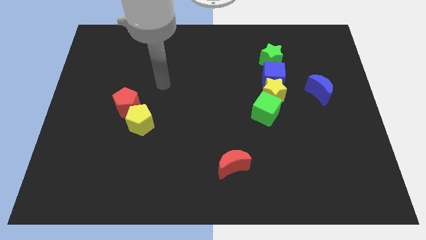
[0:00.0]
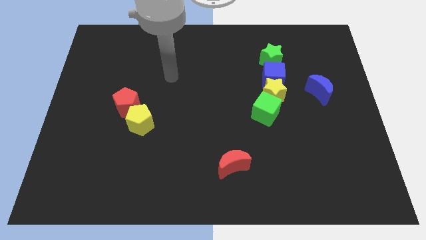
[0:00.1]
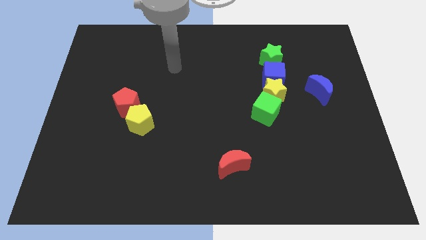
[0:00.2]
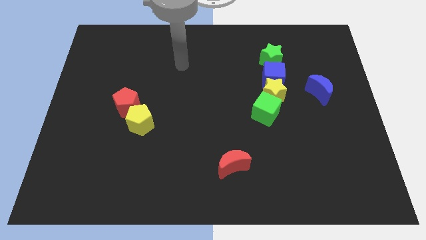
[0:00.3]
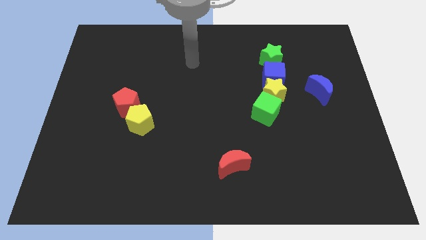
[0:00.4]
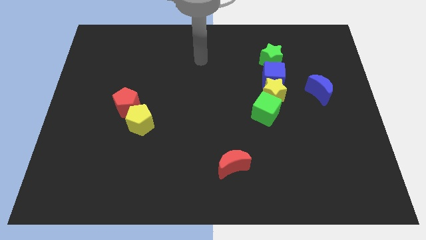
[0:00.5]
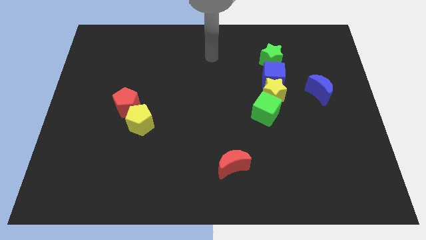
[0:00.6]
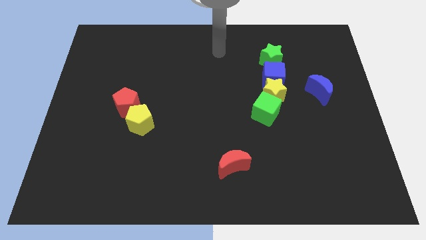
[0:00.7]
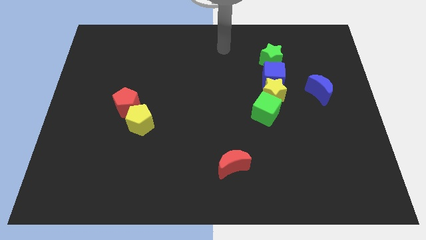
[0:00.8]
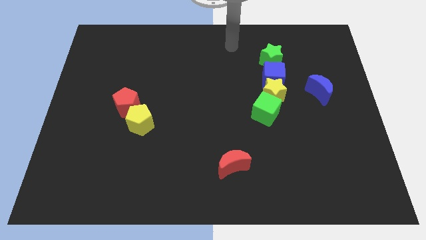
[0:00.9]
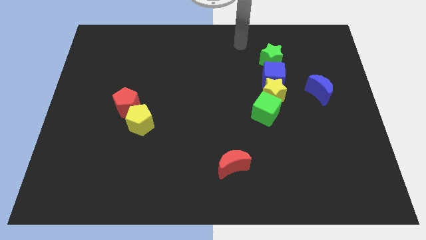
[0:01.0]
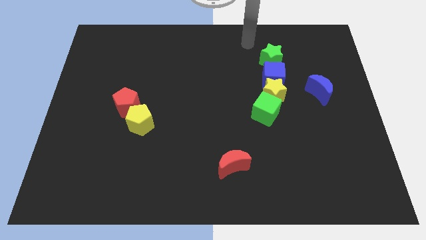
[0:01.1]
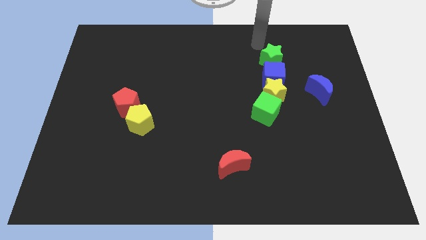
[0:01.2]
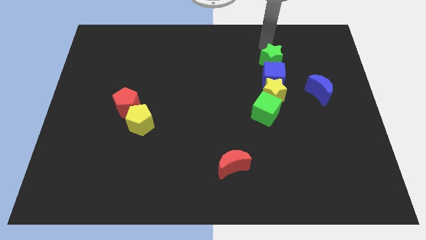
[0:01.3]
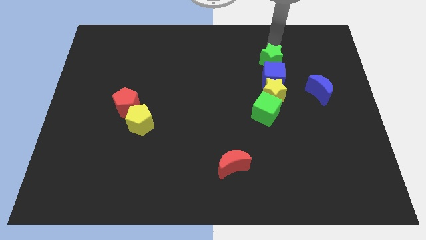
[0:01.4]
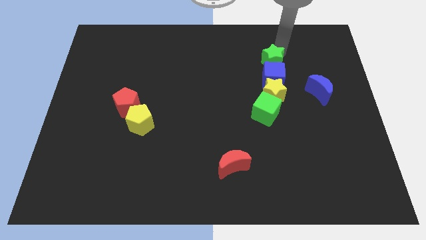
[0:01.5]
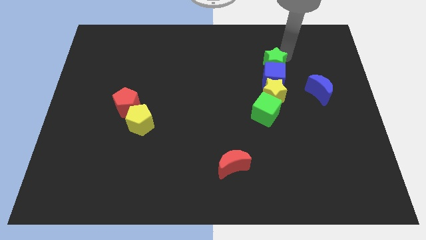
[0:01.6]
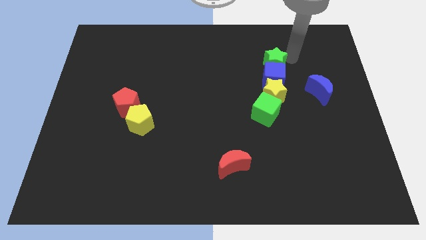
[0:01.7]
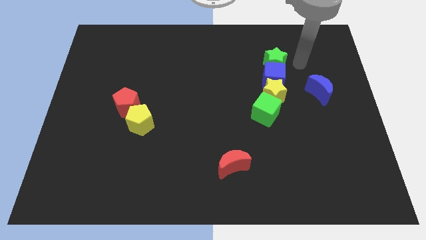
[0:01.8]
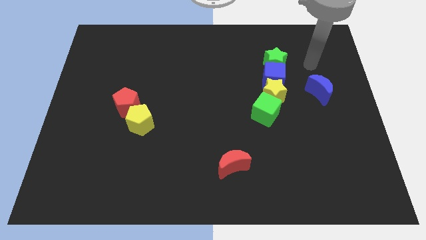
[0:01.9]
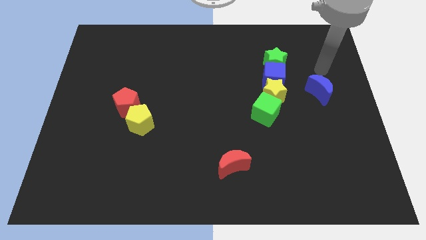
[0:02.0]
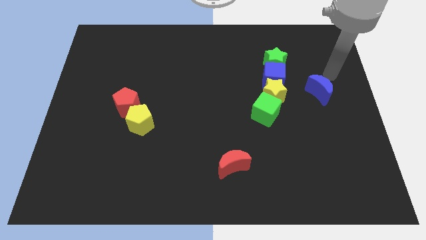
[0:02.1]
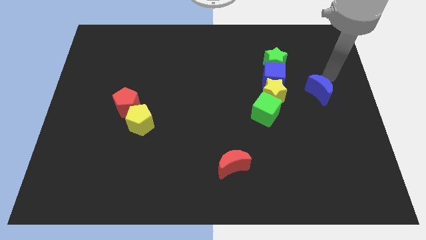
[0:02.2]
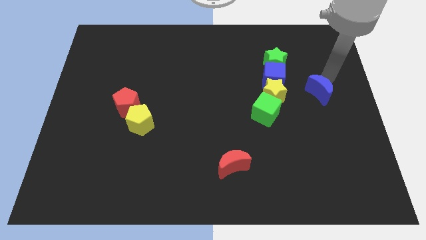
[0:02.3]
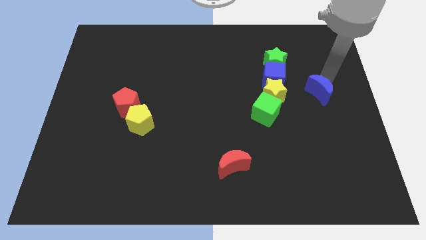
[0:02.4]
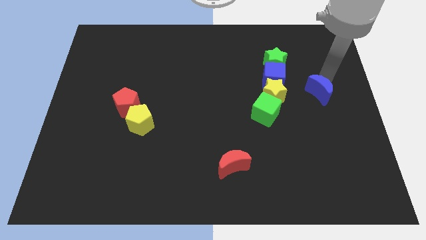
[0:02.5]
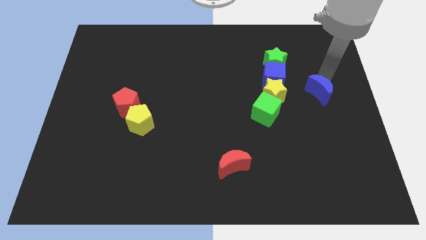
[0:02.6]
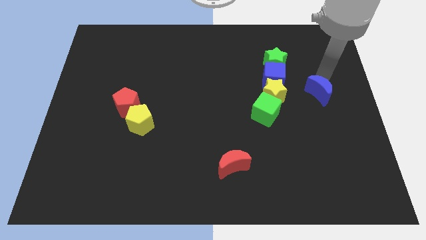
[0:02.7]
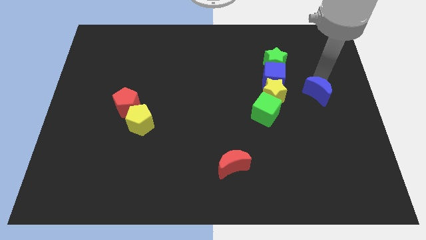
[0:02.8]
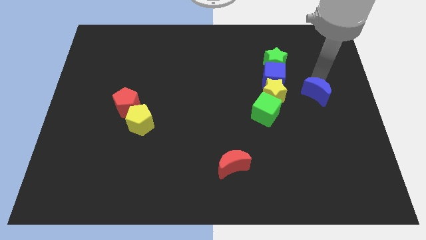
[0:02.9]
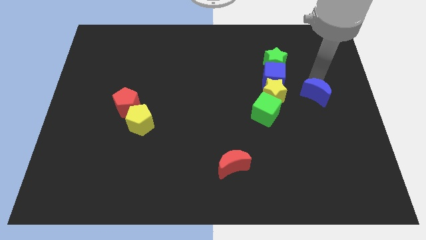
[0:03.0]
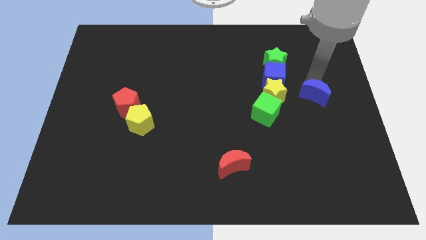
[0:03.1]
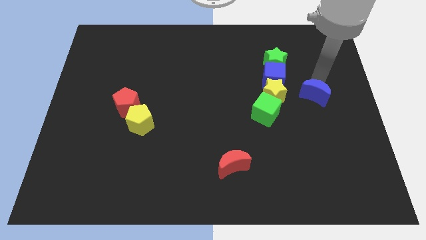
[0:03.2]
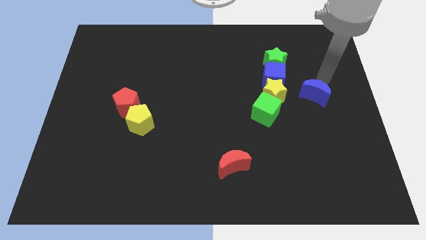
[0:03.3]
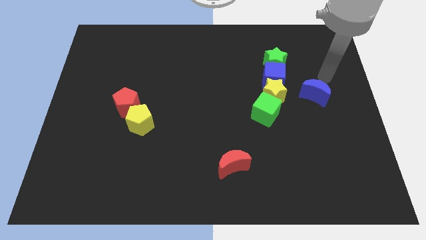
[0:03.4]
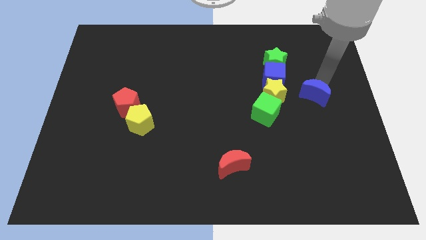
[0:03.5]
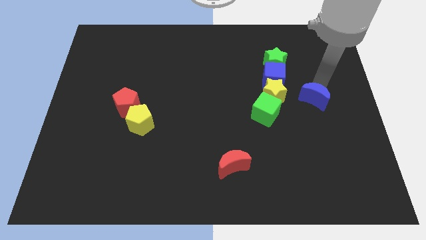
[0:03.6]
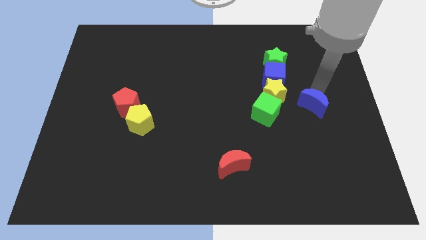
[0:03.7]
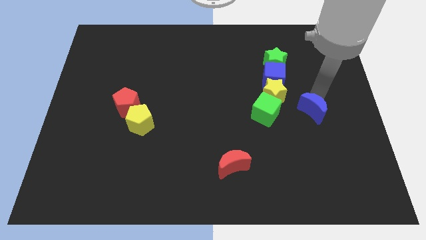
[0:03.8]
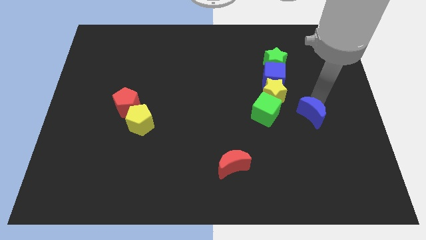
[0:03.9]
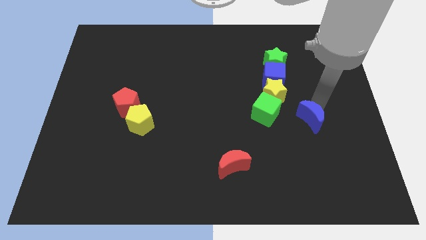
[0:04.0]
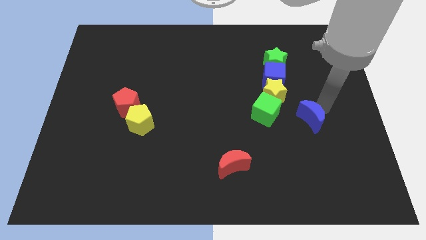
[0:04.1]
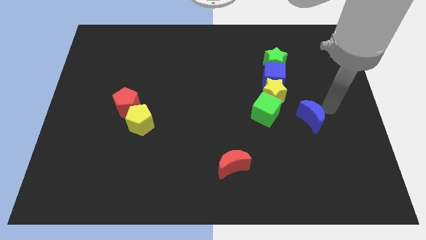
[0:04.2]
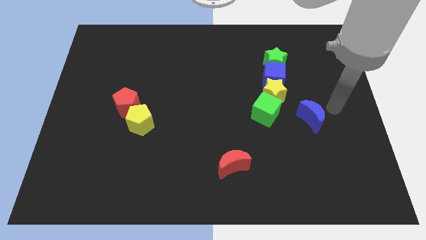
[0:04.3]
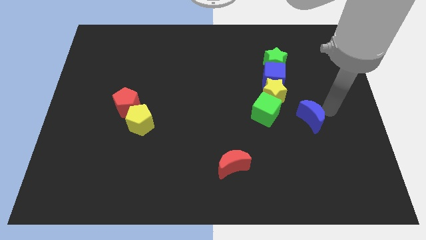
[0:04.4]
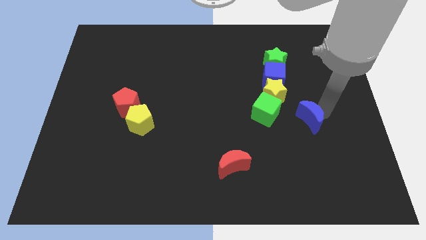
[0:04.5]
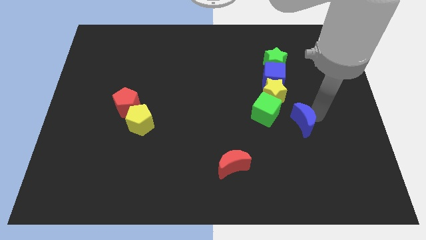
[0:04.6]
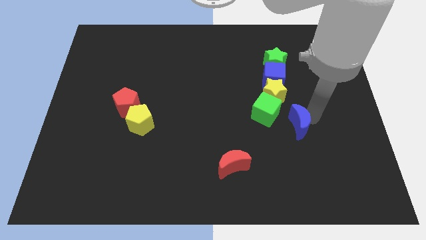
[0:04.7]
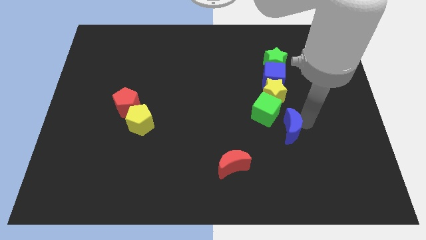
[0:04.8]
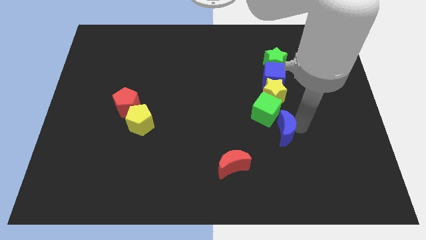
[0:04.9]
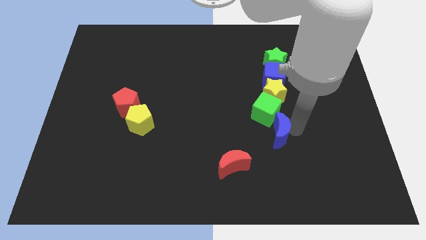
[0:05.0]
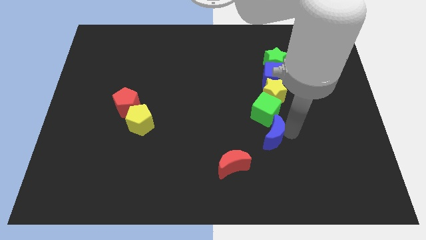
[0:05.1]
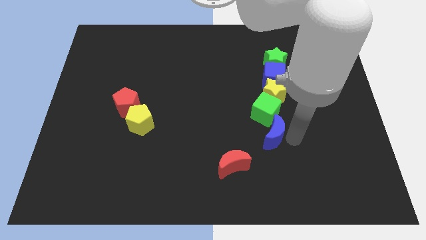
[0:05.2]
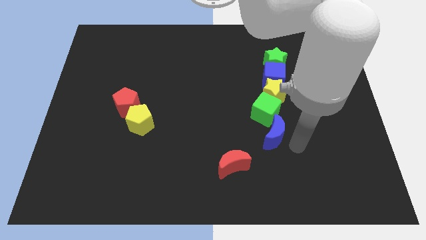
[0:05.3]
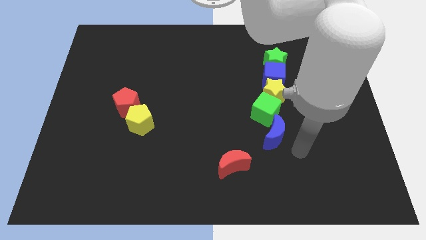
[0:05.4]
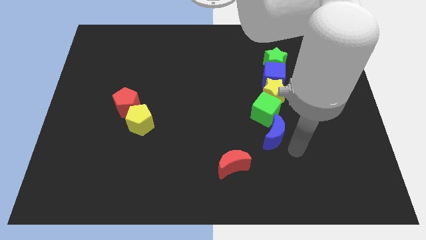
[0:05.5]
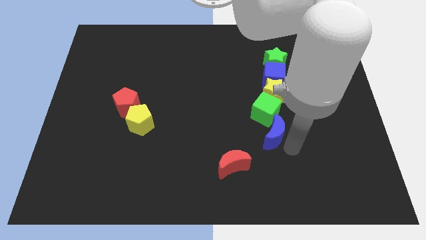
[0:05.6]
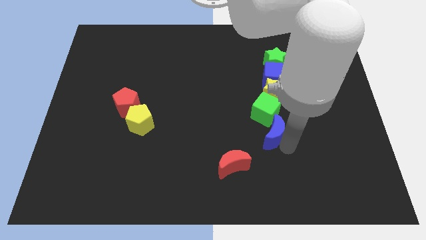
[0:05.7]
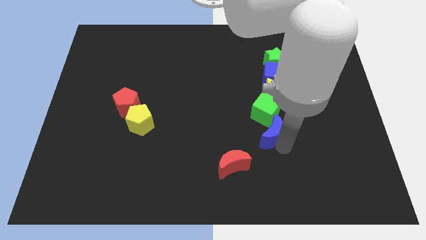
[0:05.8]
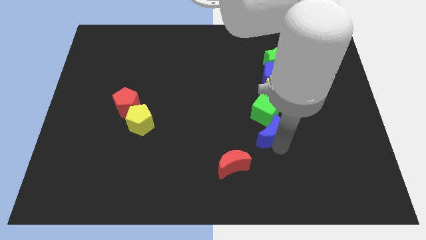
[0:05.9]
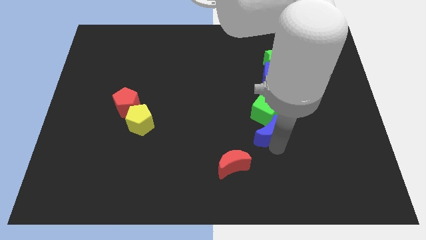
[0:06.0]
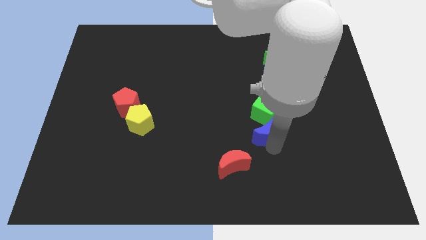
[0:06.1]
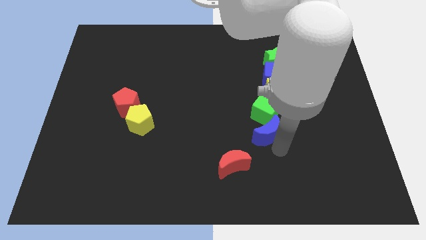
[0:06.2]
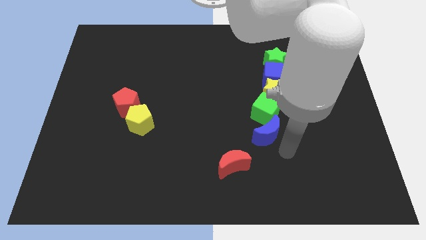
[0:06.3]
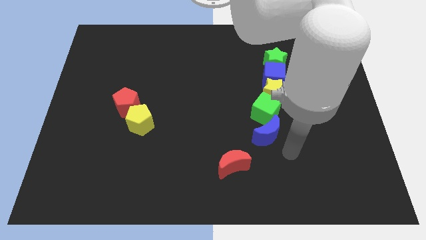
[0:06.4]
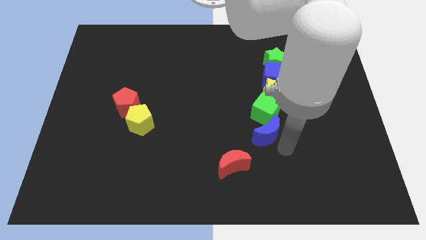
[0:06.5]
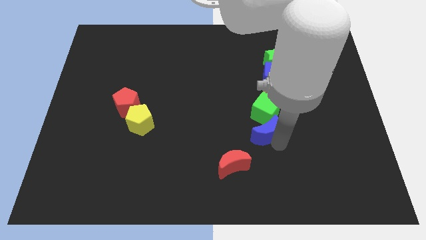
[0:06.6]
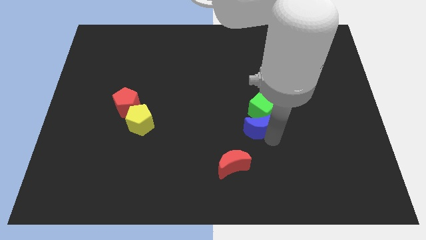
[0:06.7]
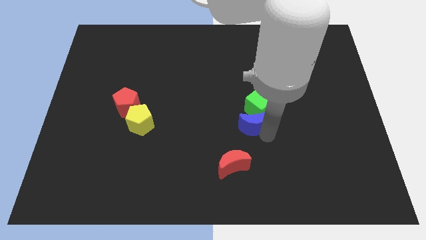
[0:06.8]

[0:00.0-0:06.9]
slide the blue moon to the center of the board
